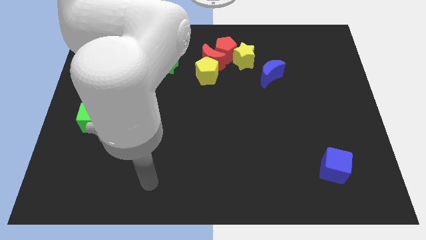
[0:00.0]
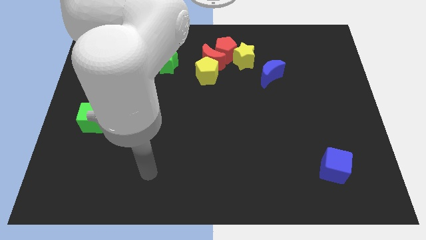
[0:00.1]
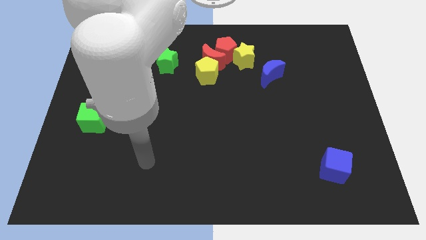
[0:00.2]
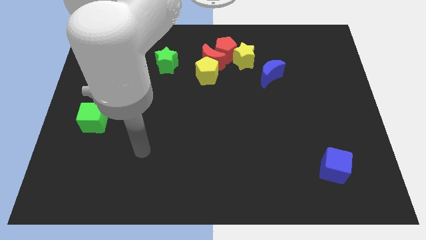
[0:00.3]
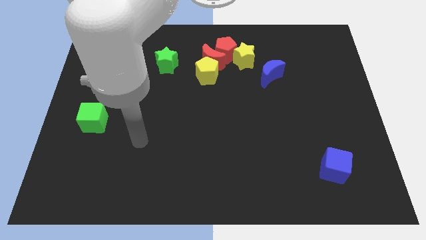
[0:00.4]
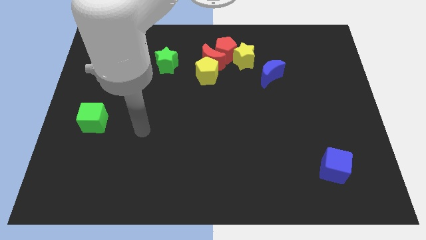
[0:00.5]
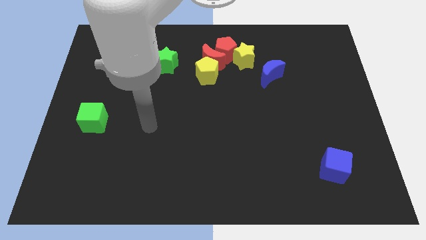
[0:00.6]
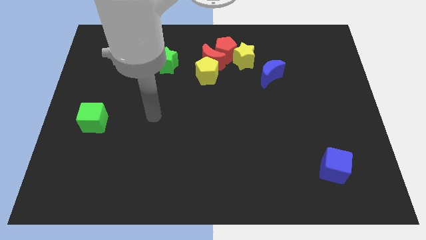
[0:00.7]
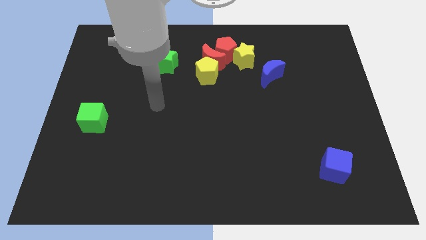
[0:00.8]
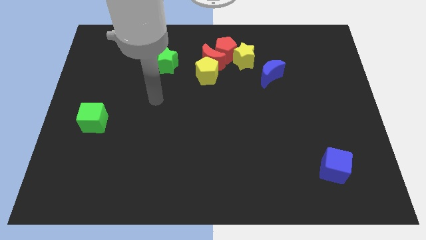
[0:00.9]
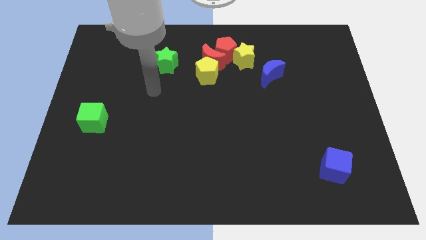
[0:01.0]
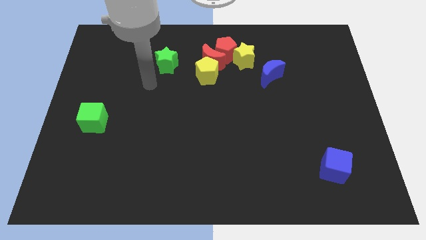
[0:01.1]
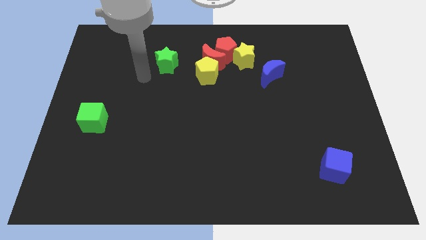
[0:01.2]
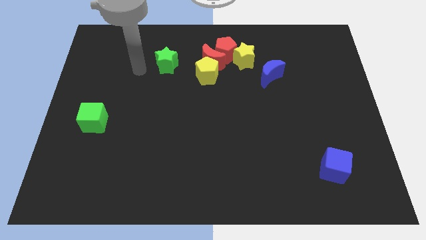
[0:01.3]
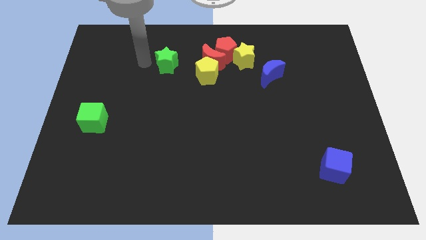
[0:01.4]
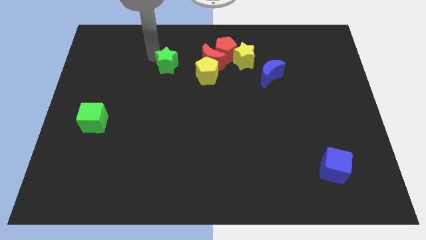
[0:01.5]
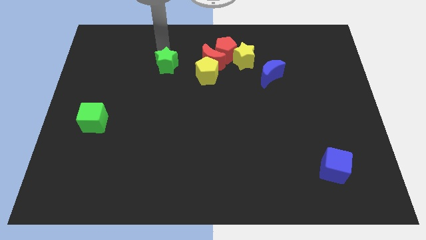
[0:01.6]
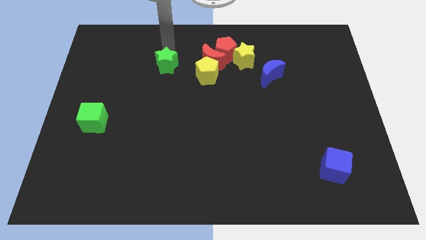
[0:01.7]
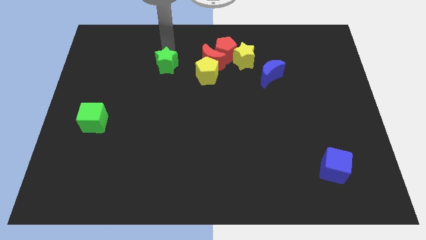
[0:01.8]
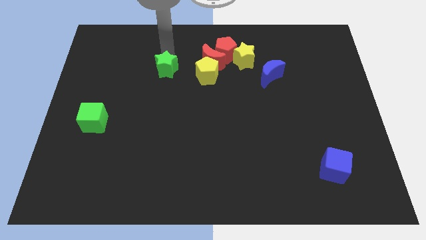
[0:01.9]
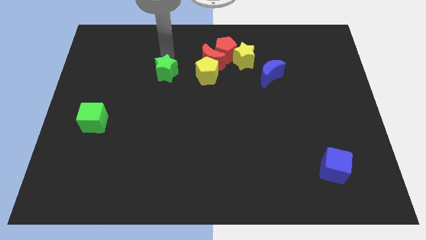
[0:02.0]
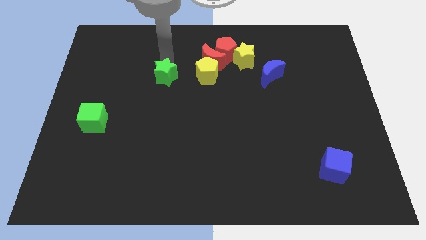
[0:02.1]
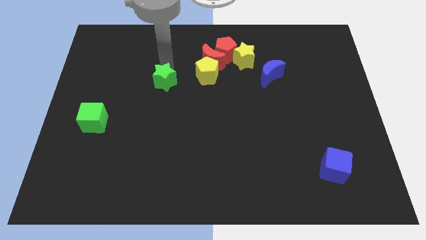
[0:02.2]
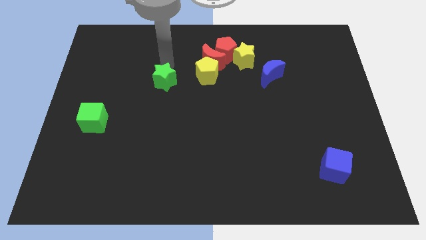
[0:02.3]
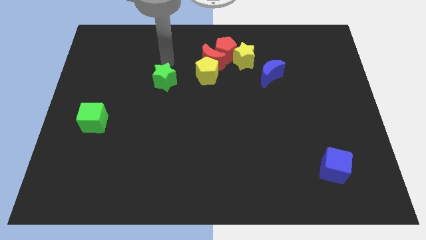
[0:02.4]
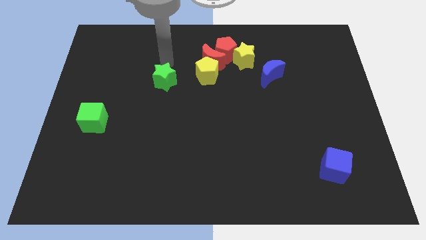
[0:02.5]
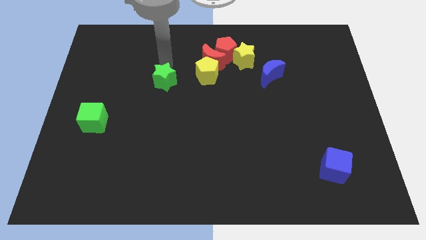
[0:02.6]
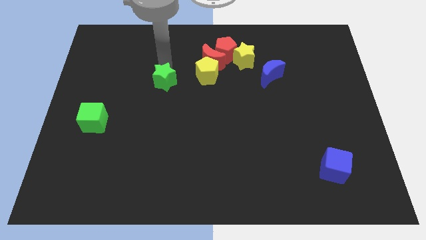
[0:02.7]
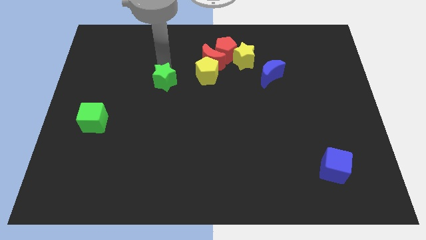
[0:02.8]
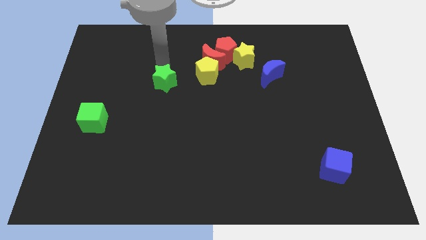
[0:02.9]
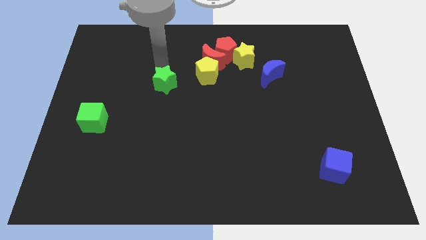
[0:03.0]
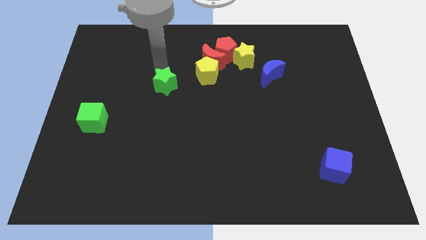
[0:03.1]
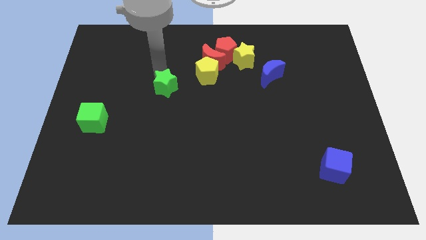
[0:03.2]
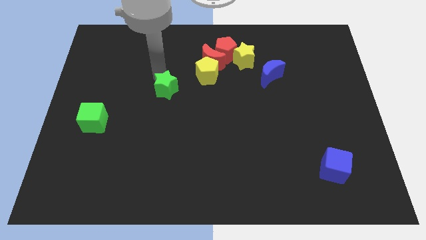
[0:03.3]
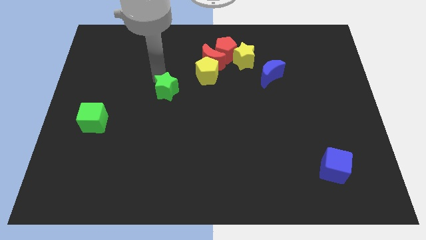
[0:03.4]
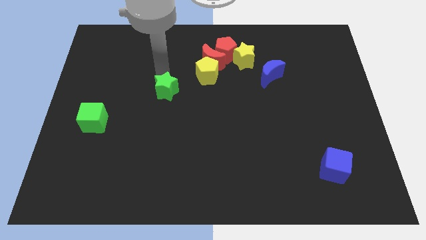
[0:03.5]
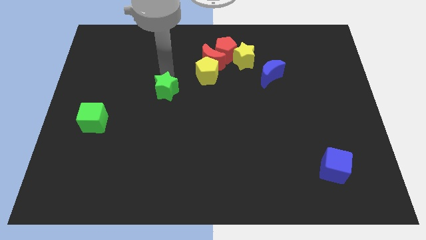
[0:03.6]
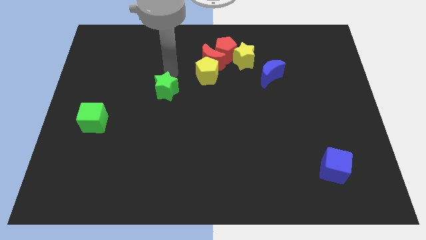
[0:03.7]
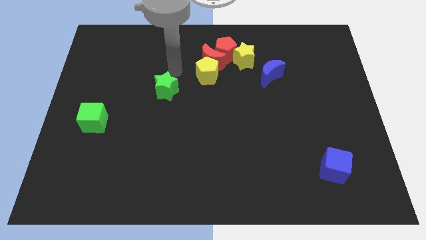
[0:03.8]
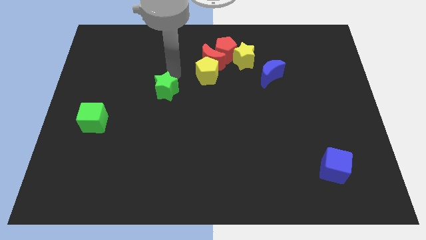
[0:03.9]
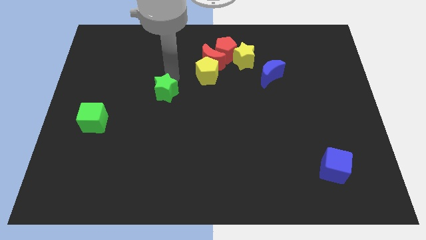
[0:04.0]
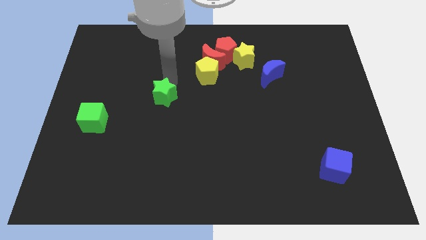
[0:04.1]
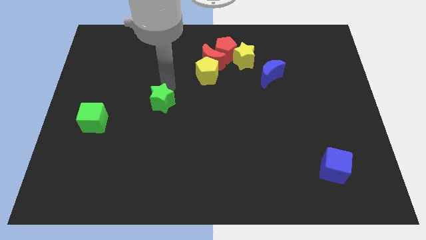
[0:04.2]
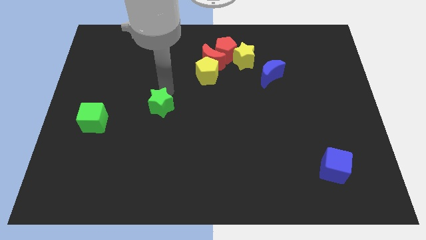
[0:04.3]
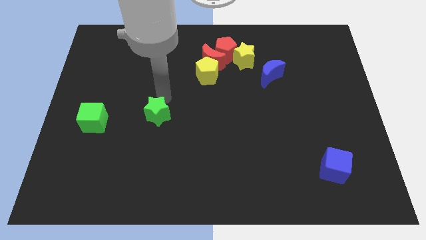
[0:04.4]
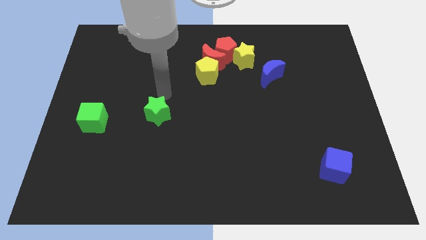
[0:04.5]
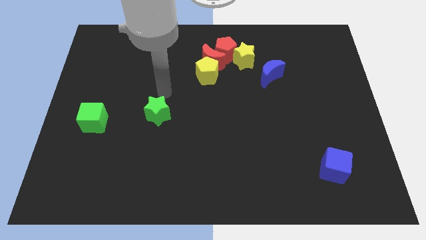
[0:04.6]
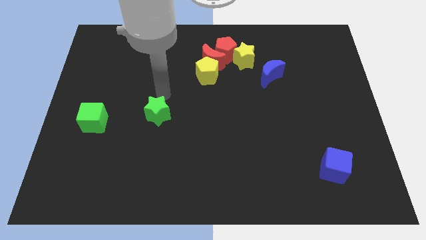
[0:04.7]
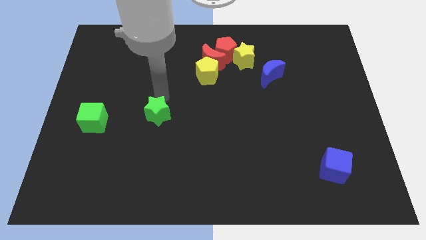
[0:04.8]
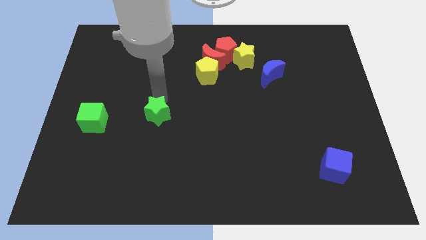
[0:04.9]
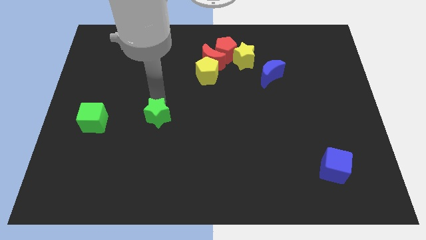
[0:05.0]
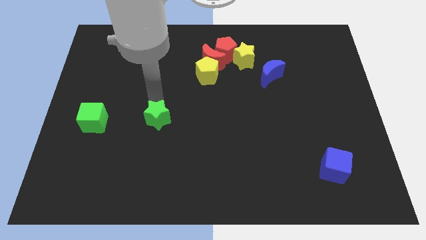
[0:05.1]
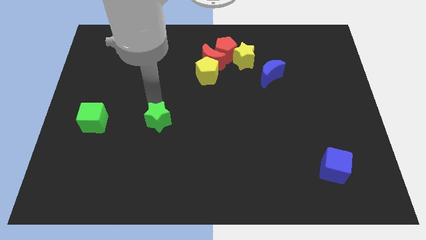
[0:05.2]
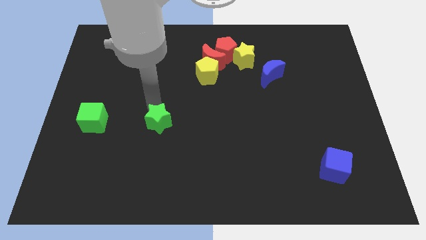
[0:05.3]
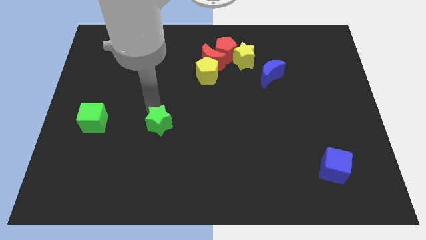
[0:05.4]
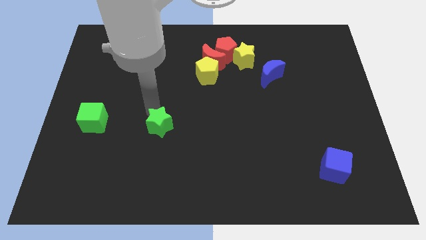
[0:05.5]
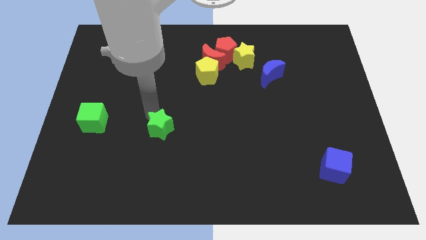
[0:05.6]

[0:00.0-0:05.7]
move the green star down

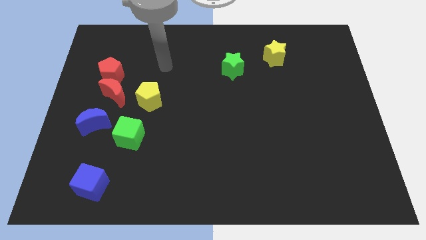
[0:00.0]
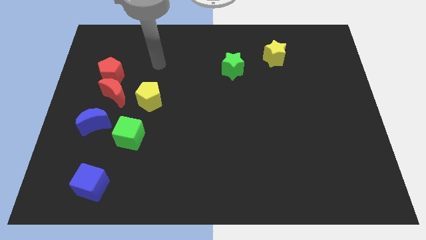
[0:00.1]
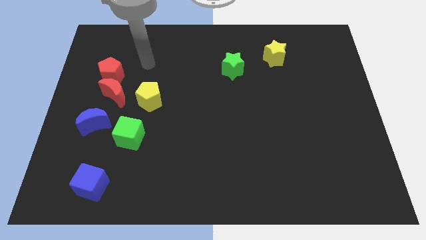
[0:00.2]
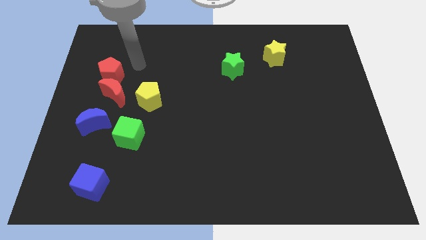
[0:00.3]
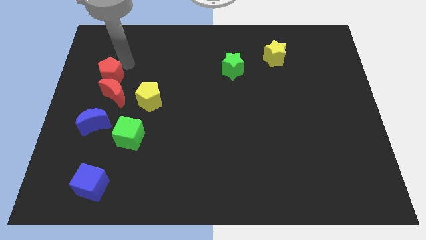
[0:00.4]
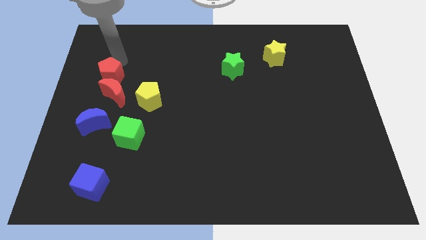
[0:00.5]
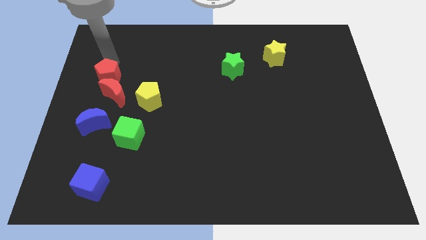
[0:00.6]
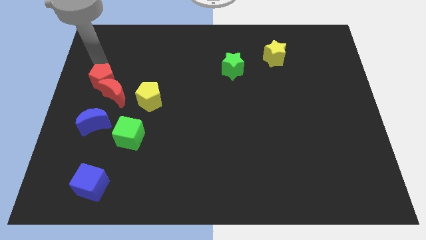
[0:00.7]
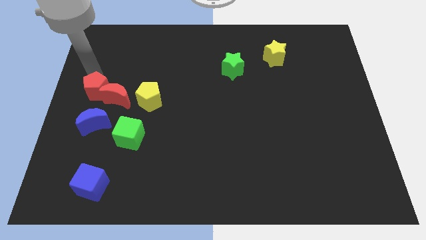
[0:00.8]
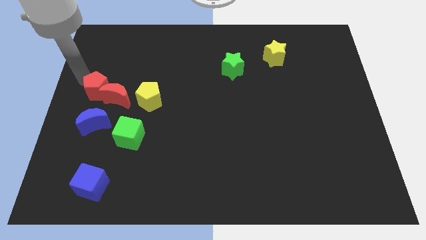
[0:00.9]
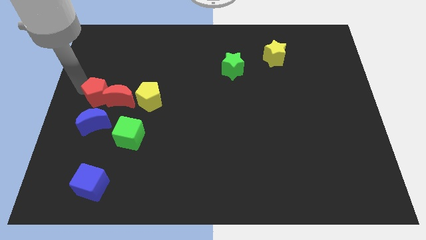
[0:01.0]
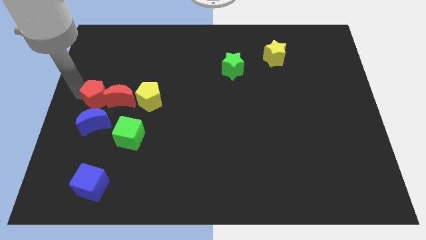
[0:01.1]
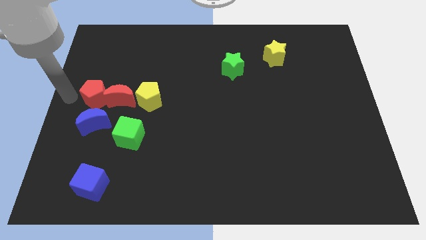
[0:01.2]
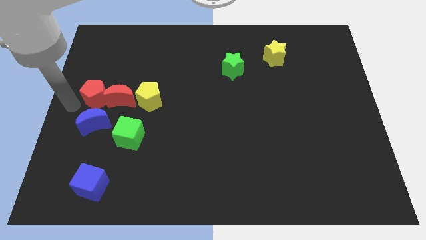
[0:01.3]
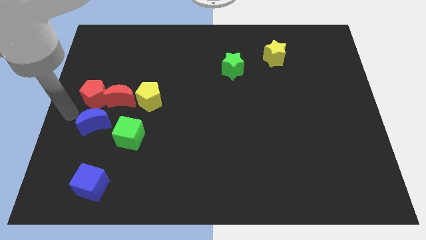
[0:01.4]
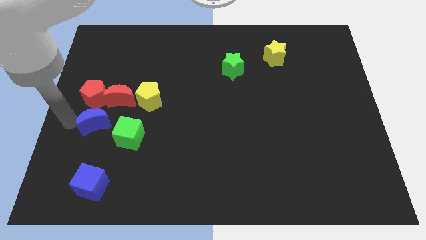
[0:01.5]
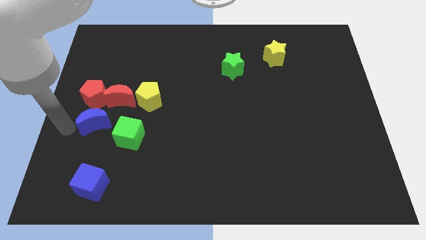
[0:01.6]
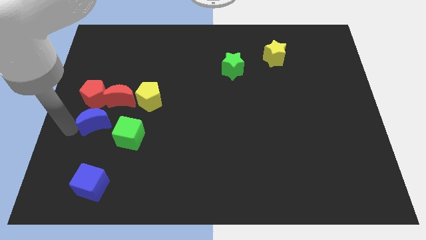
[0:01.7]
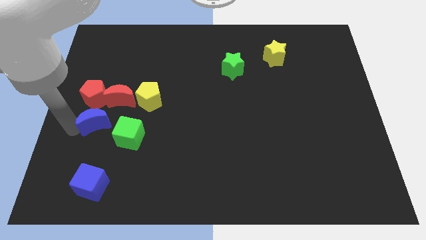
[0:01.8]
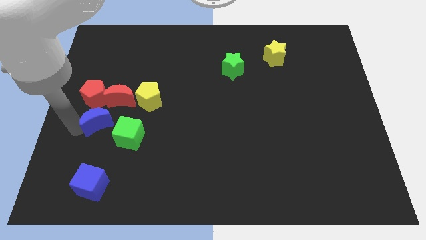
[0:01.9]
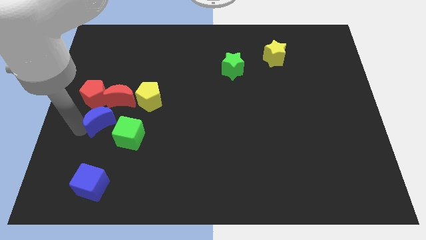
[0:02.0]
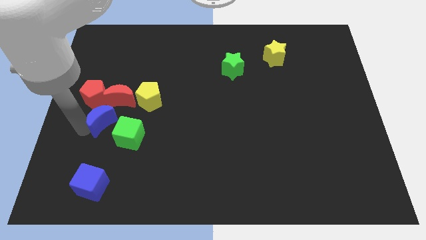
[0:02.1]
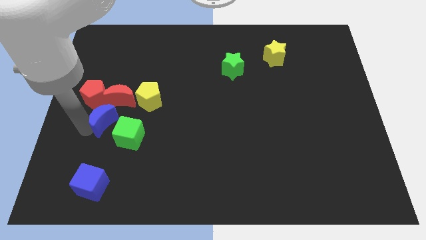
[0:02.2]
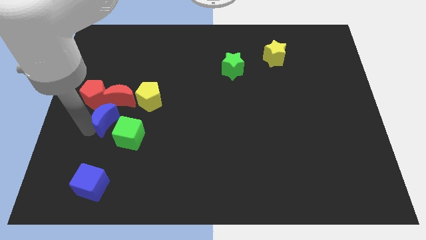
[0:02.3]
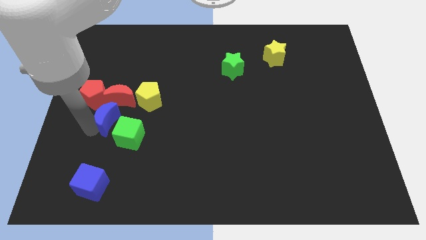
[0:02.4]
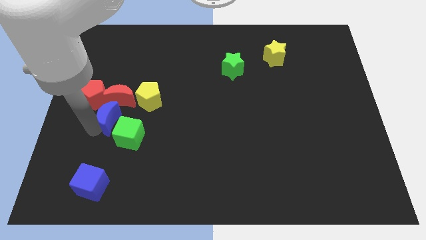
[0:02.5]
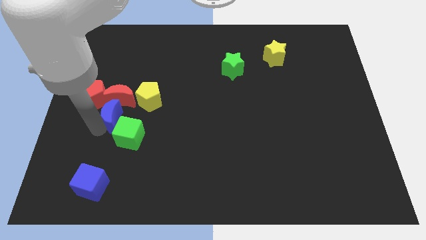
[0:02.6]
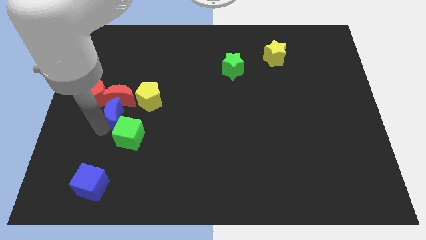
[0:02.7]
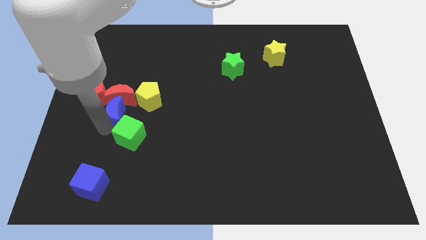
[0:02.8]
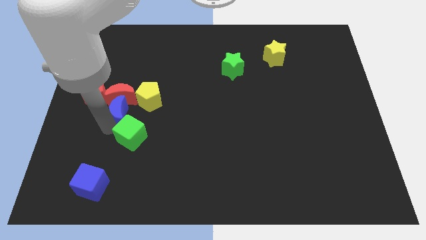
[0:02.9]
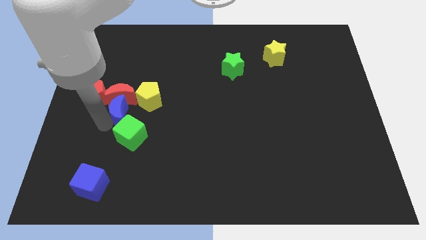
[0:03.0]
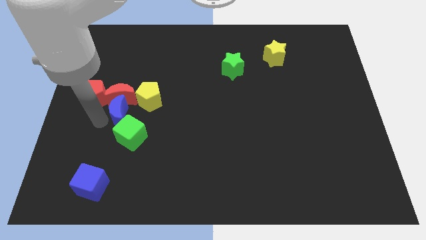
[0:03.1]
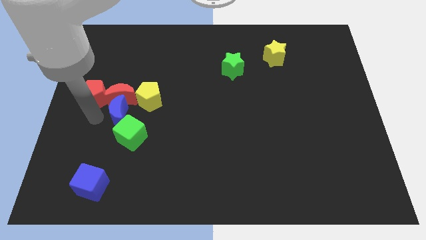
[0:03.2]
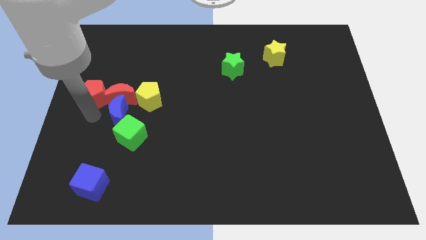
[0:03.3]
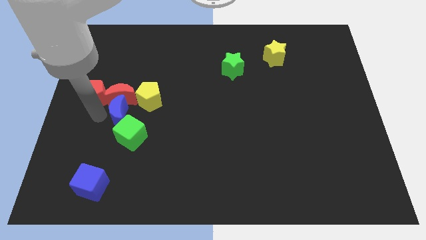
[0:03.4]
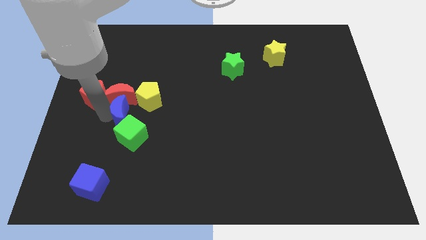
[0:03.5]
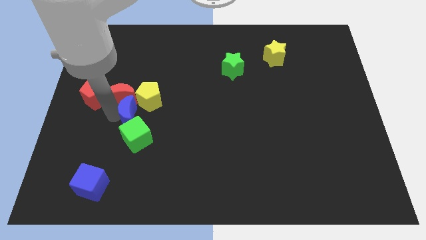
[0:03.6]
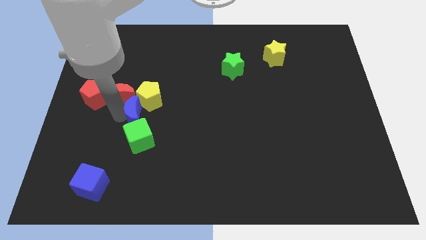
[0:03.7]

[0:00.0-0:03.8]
slightly push the blue moon up and right diagonally
